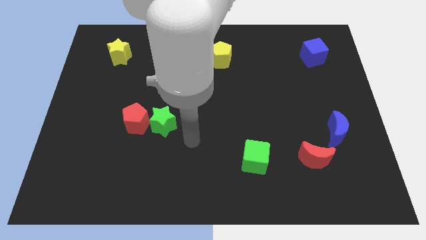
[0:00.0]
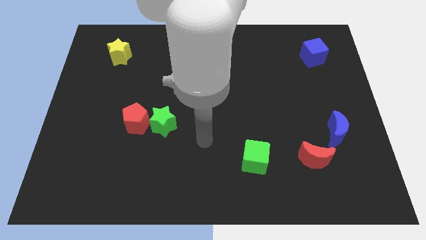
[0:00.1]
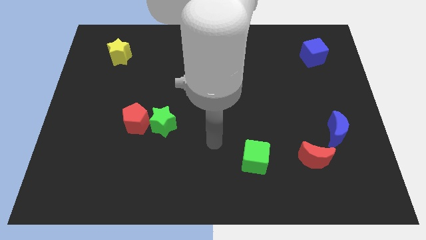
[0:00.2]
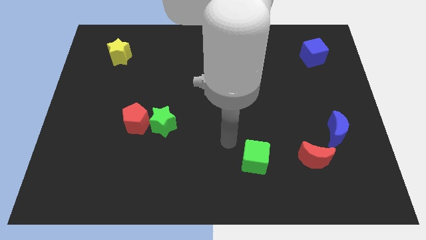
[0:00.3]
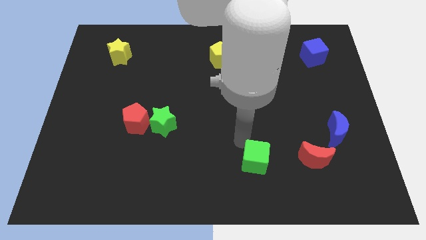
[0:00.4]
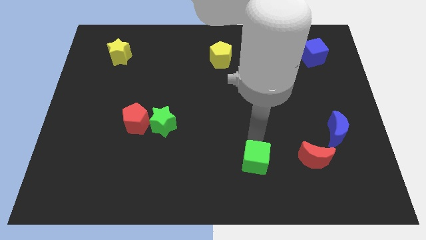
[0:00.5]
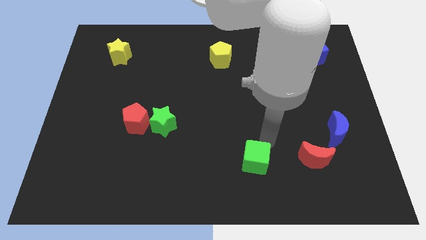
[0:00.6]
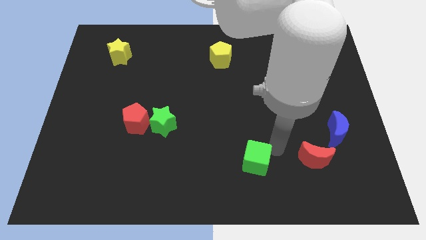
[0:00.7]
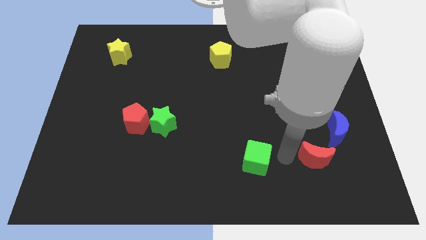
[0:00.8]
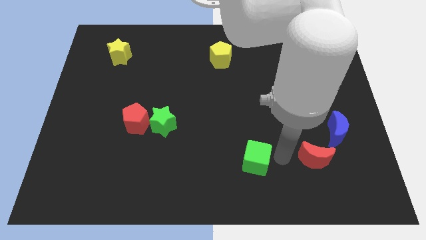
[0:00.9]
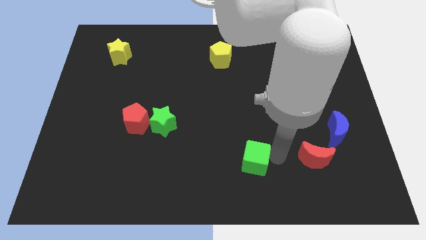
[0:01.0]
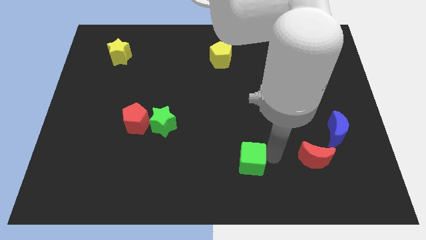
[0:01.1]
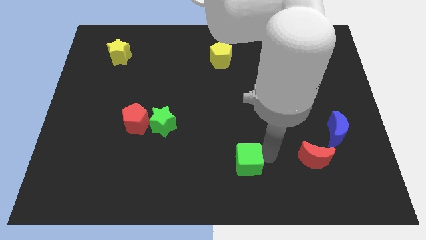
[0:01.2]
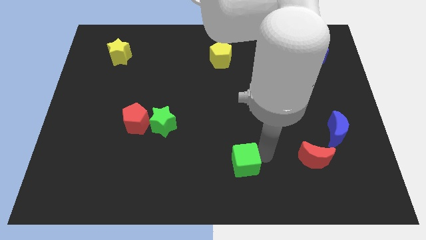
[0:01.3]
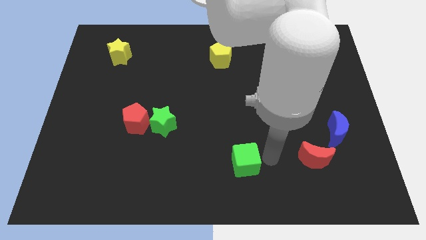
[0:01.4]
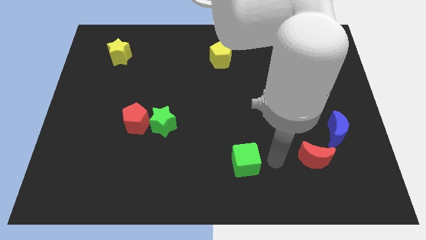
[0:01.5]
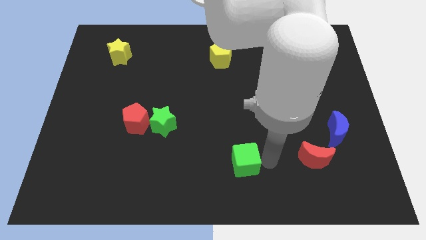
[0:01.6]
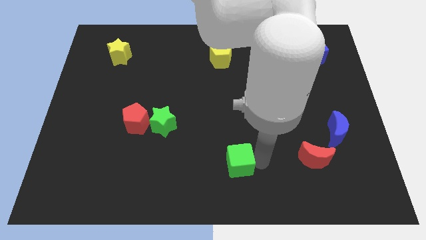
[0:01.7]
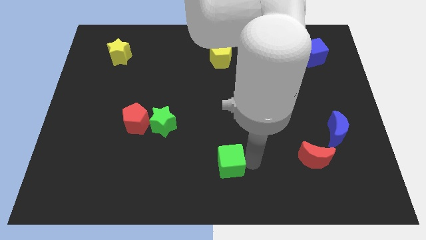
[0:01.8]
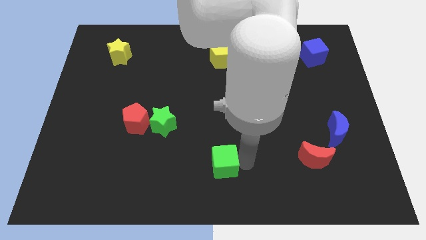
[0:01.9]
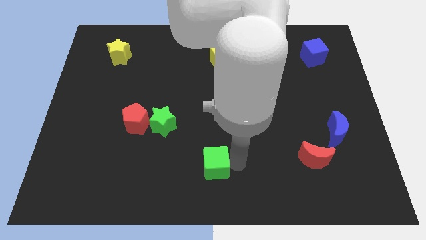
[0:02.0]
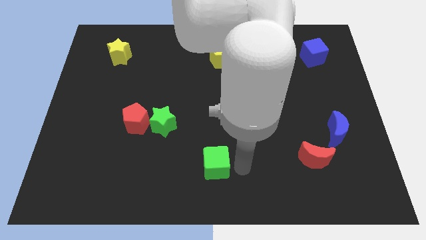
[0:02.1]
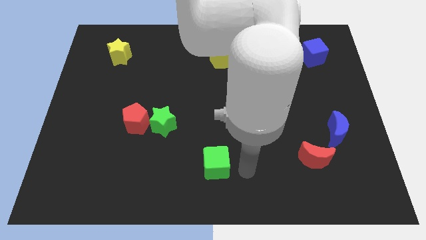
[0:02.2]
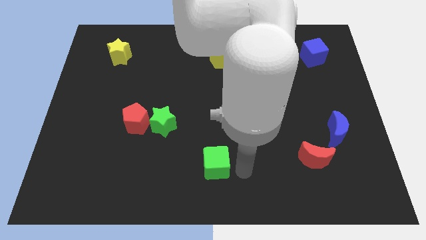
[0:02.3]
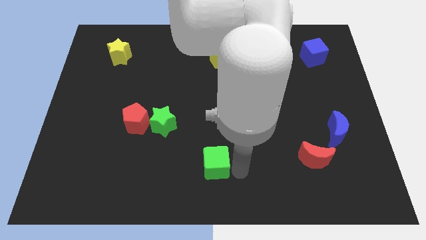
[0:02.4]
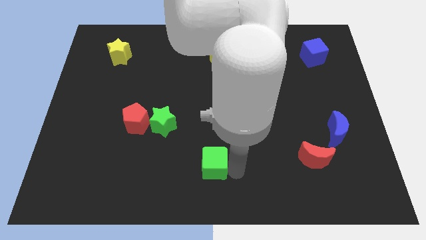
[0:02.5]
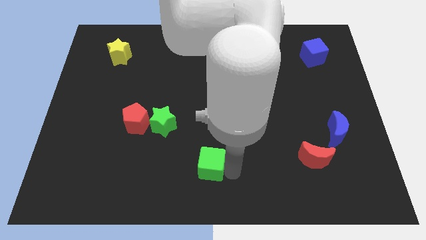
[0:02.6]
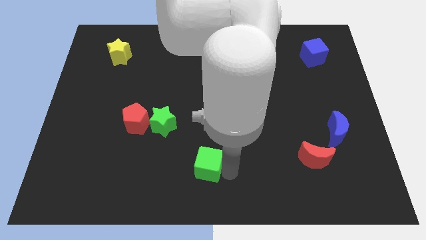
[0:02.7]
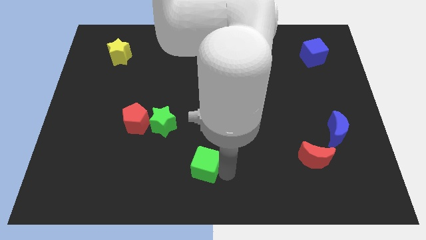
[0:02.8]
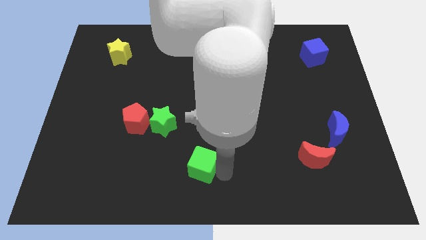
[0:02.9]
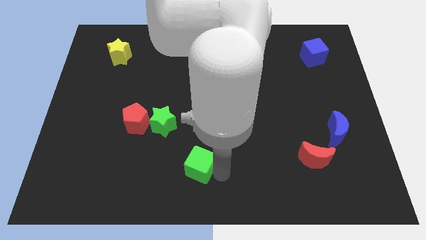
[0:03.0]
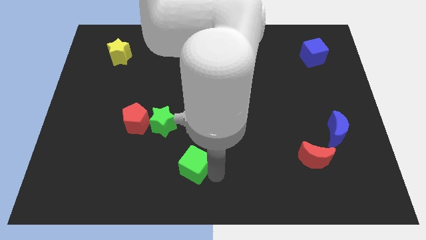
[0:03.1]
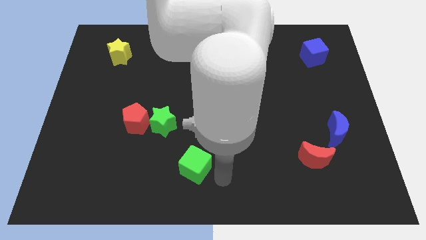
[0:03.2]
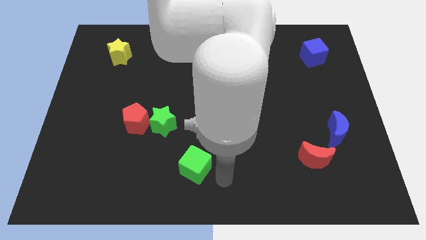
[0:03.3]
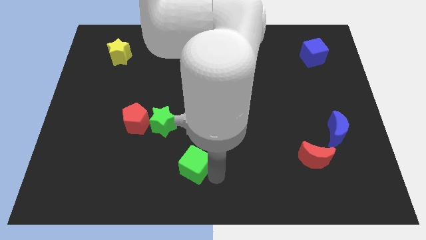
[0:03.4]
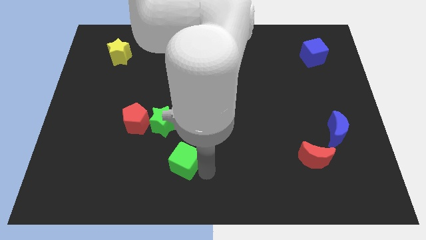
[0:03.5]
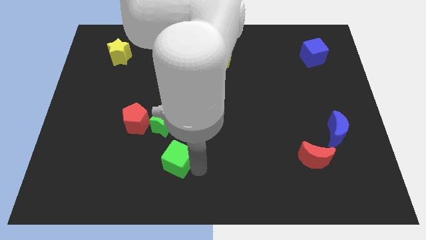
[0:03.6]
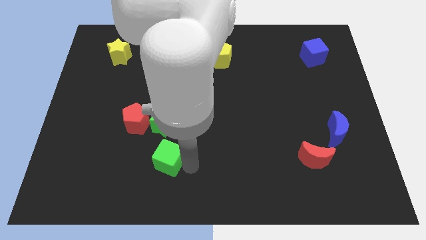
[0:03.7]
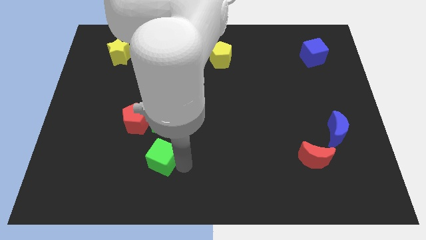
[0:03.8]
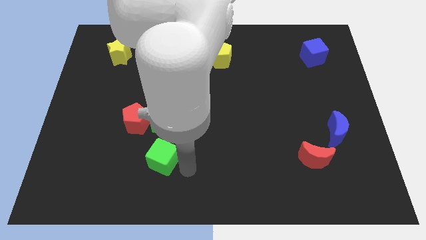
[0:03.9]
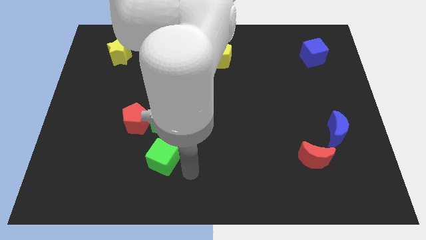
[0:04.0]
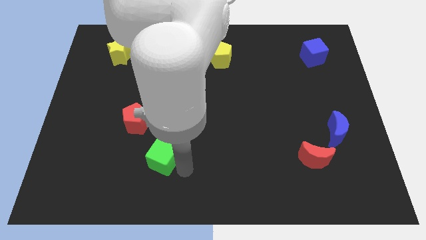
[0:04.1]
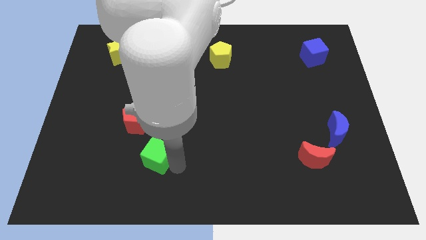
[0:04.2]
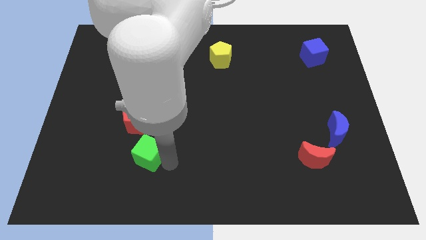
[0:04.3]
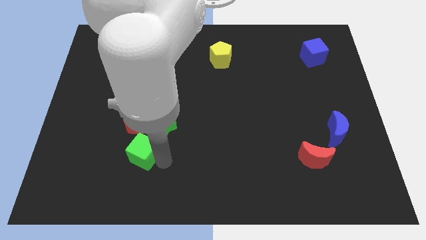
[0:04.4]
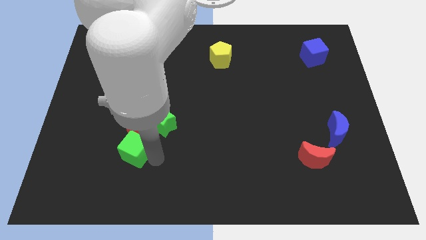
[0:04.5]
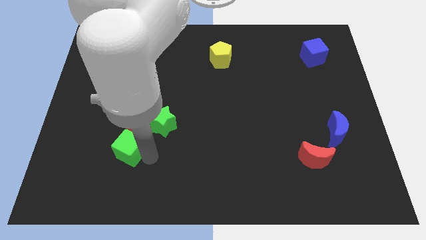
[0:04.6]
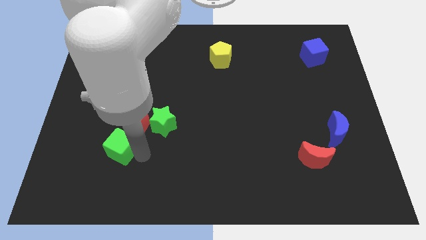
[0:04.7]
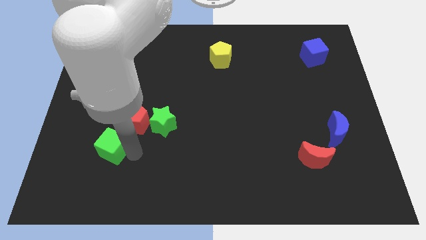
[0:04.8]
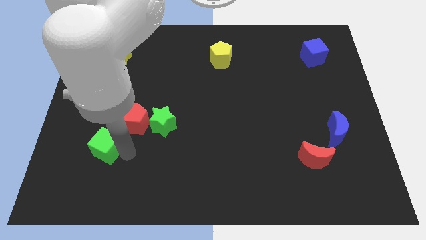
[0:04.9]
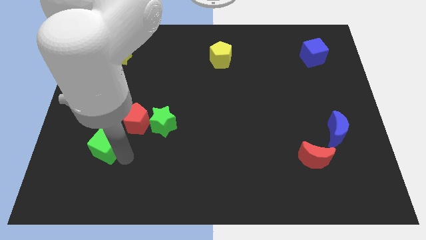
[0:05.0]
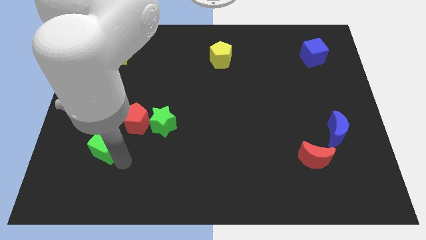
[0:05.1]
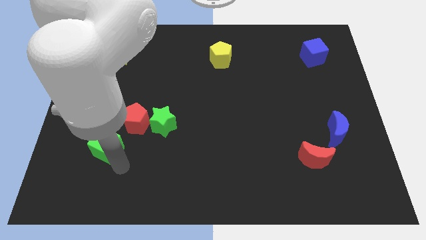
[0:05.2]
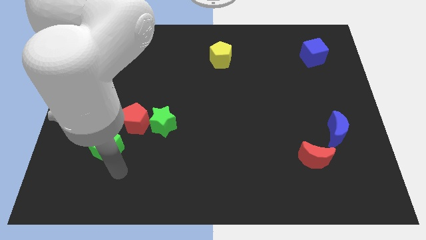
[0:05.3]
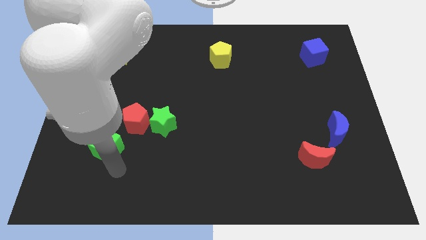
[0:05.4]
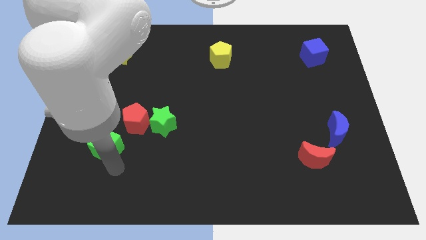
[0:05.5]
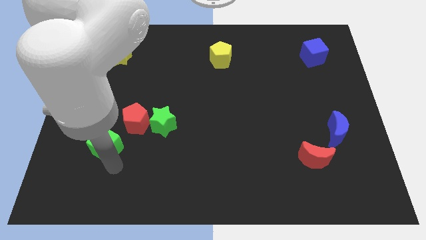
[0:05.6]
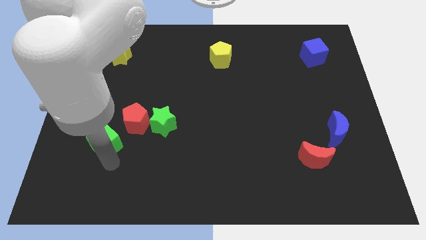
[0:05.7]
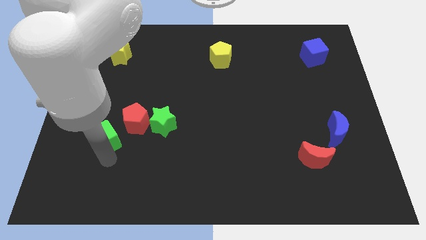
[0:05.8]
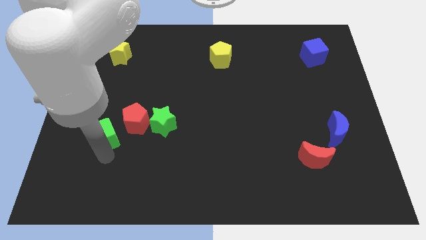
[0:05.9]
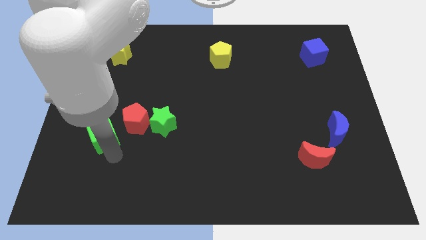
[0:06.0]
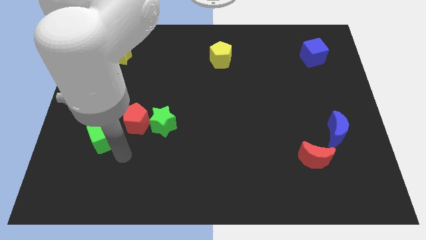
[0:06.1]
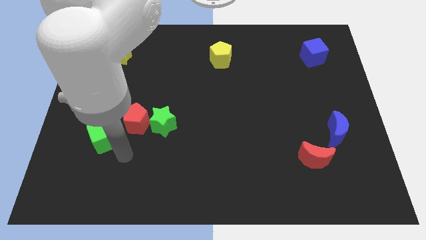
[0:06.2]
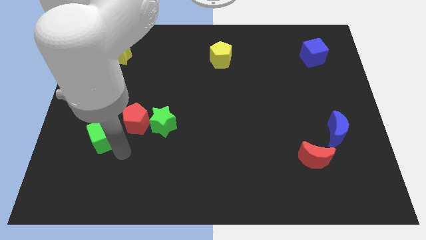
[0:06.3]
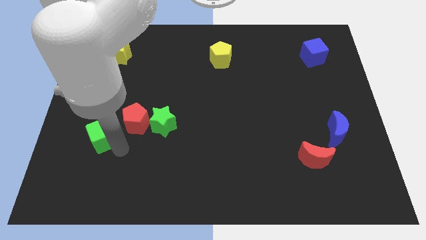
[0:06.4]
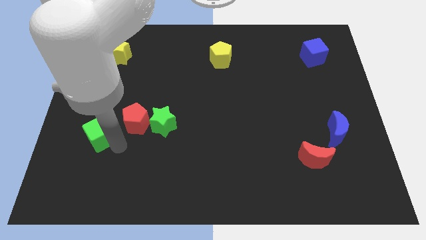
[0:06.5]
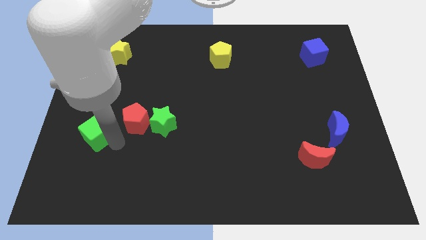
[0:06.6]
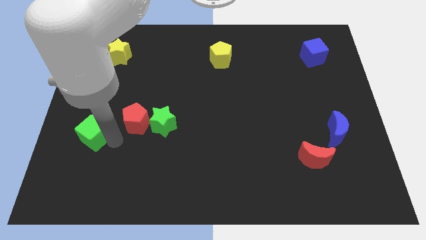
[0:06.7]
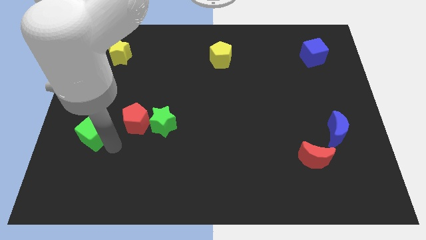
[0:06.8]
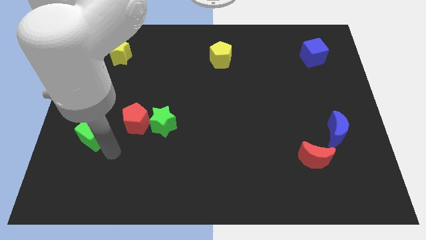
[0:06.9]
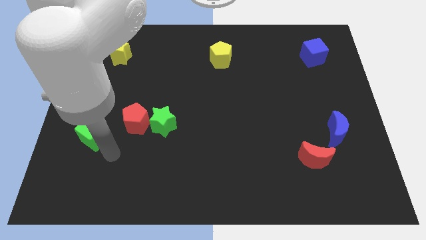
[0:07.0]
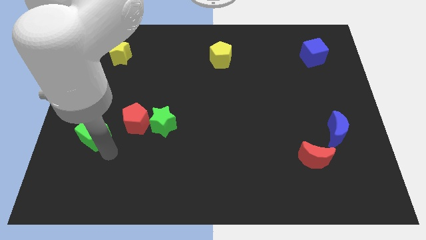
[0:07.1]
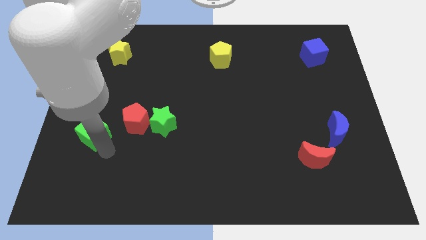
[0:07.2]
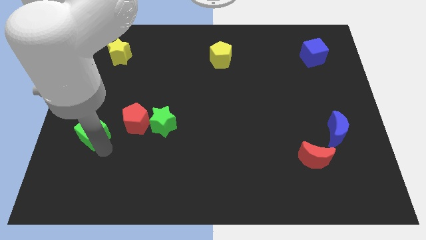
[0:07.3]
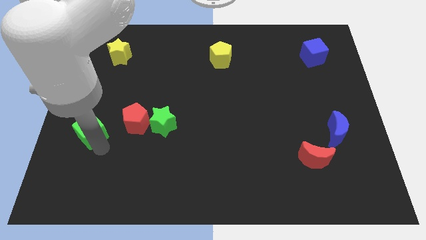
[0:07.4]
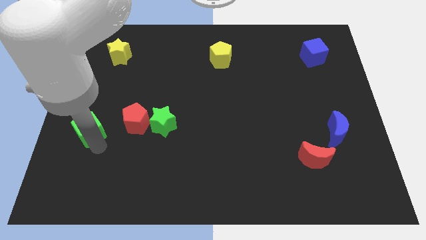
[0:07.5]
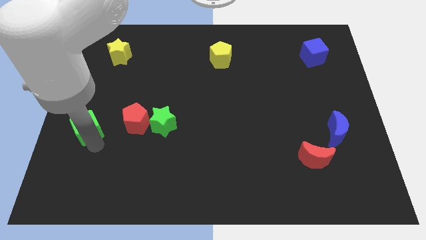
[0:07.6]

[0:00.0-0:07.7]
slide the green cube to the left side of the board
